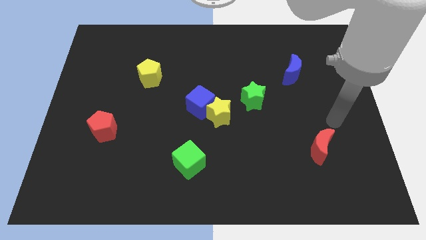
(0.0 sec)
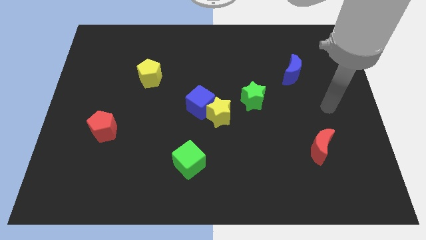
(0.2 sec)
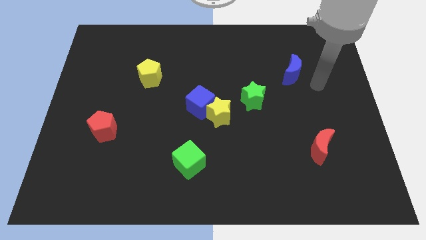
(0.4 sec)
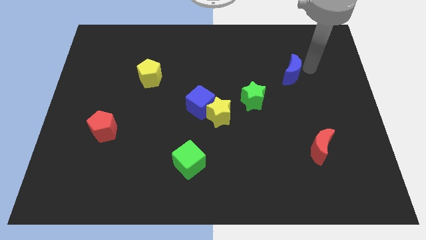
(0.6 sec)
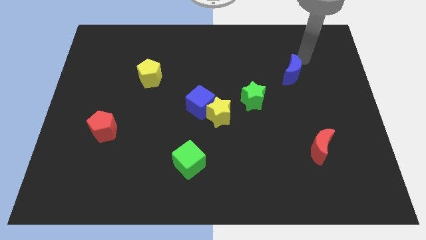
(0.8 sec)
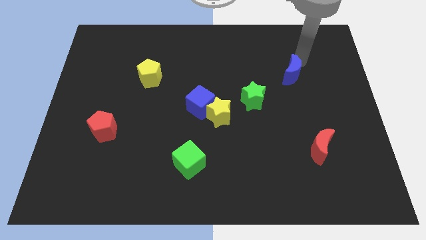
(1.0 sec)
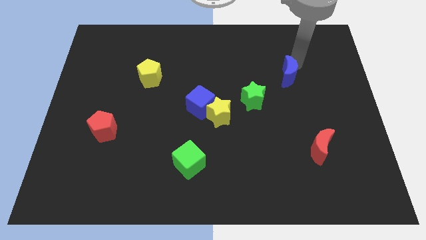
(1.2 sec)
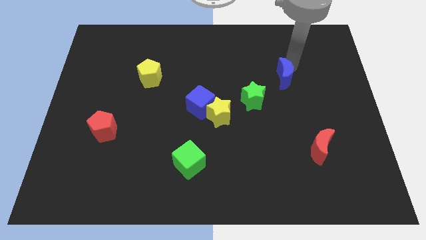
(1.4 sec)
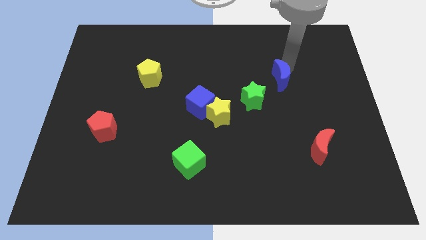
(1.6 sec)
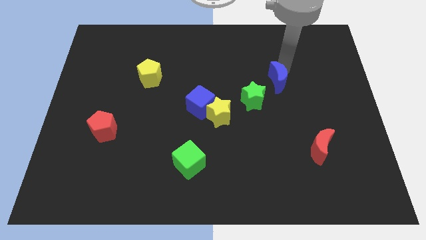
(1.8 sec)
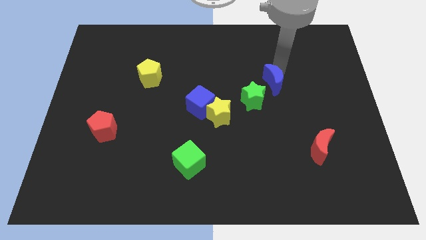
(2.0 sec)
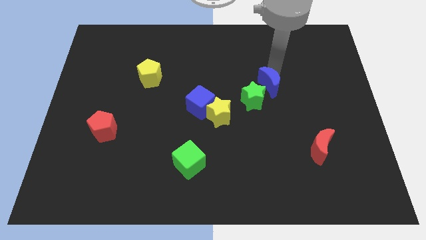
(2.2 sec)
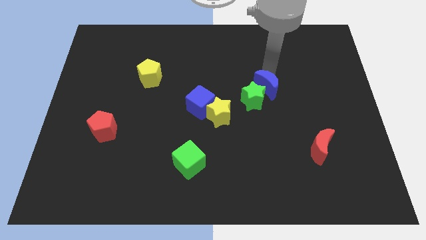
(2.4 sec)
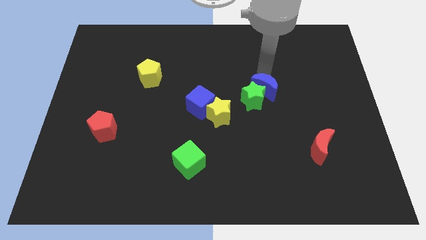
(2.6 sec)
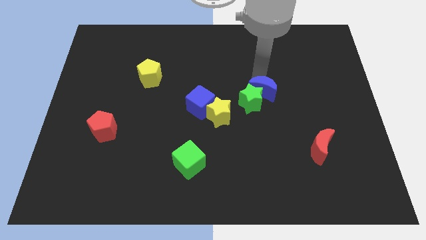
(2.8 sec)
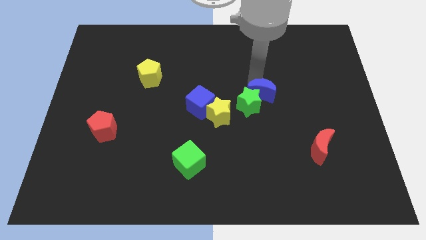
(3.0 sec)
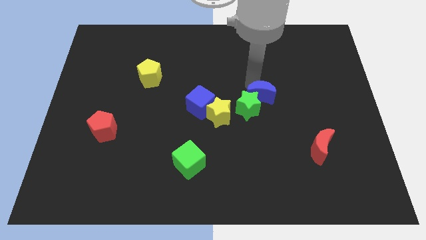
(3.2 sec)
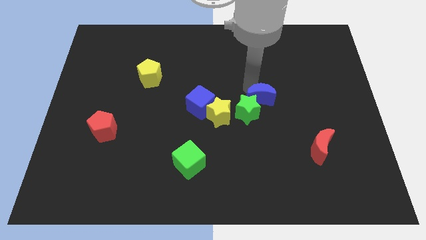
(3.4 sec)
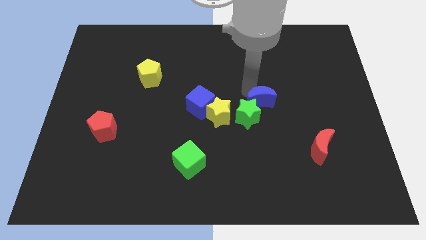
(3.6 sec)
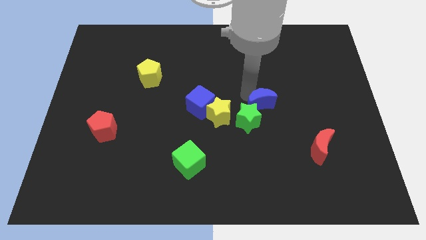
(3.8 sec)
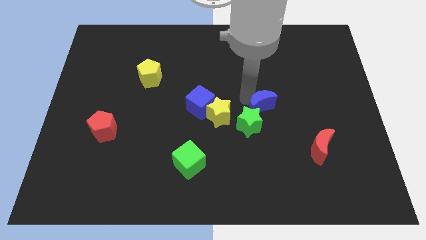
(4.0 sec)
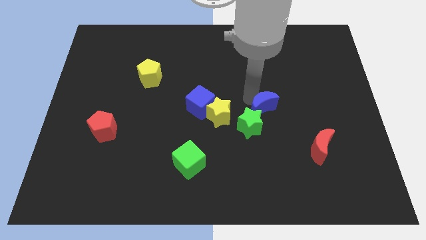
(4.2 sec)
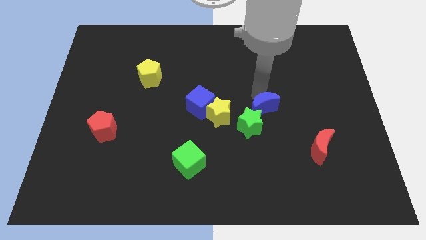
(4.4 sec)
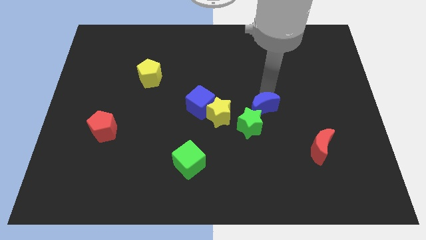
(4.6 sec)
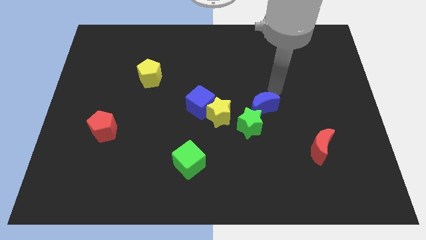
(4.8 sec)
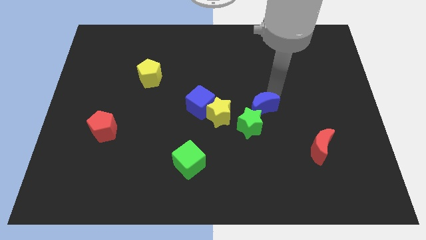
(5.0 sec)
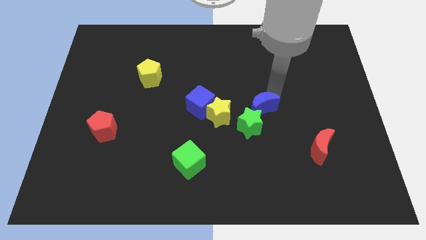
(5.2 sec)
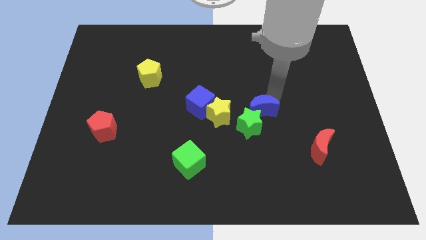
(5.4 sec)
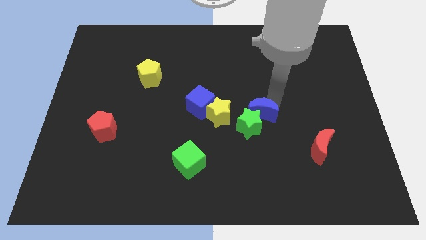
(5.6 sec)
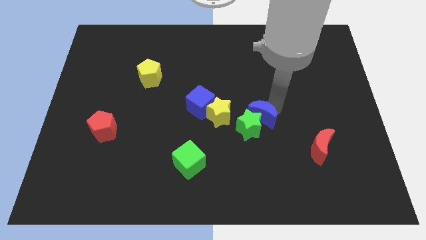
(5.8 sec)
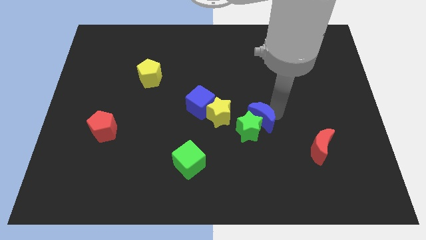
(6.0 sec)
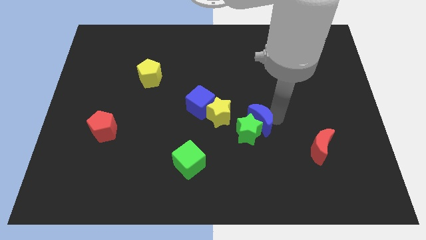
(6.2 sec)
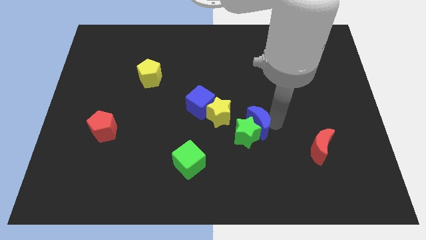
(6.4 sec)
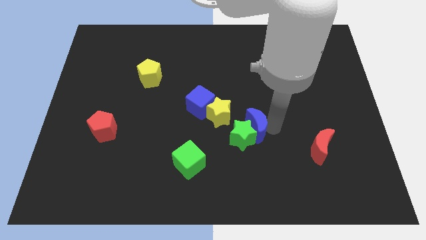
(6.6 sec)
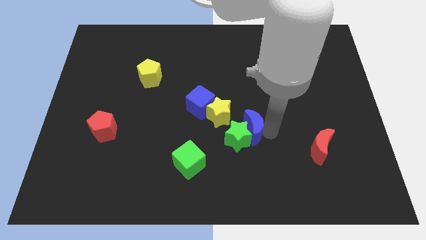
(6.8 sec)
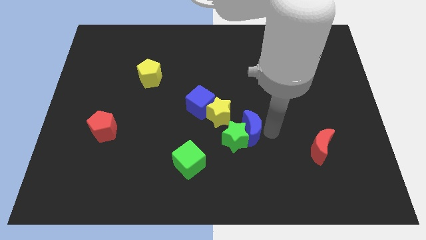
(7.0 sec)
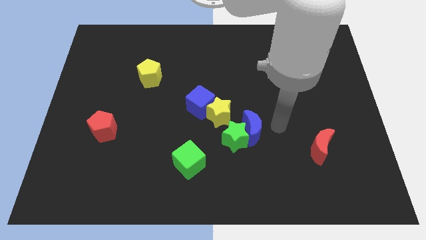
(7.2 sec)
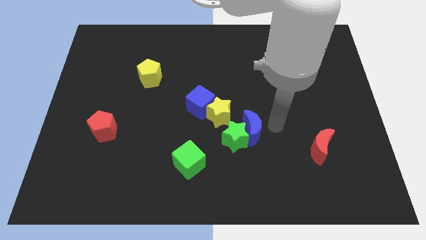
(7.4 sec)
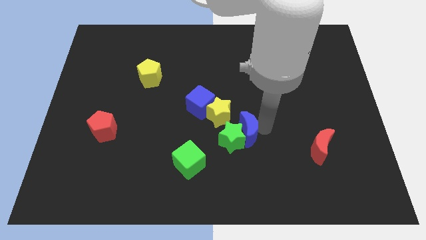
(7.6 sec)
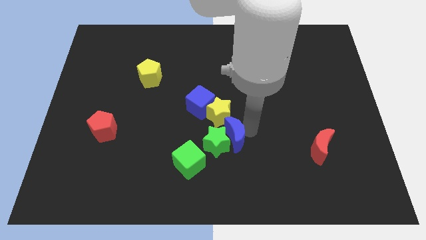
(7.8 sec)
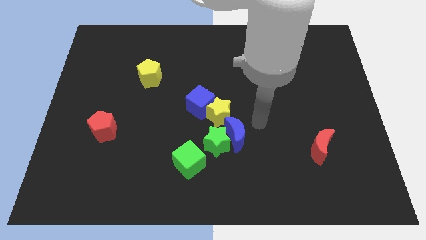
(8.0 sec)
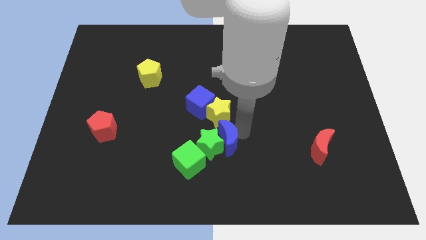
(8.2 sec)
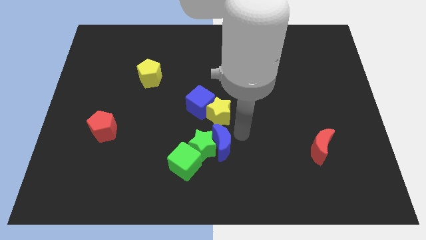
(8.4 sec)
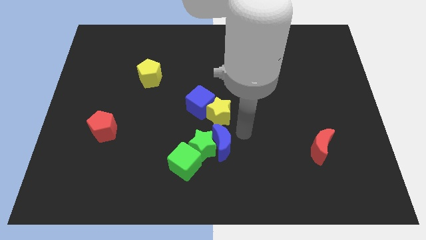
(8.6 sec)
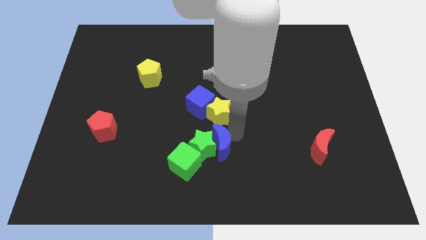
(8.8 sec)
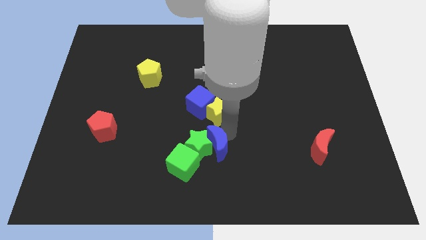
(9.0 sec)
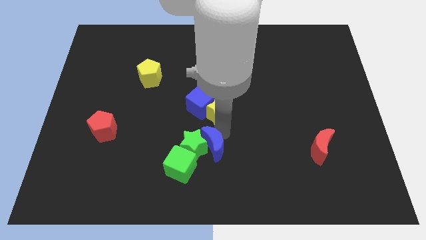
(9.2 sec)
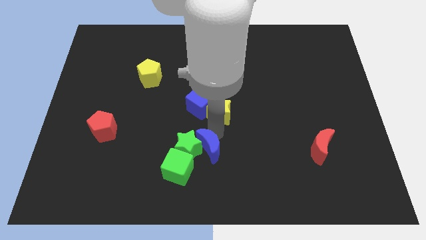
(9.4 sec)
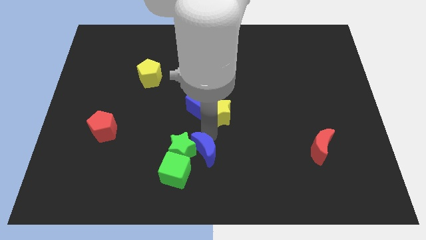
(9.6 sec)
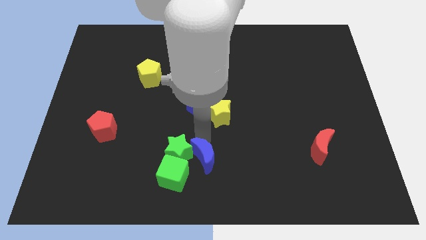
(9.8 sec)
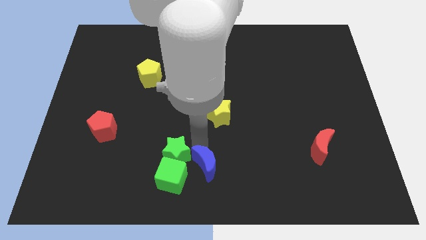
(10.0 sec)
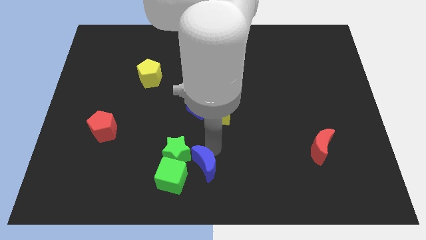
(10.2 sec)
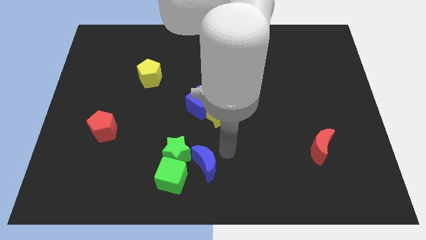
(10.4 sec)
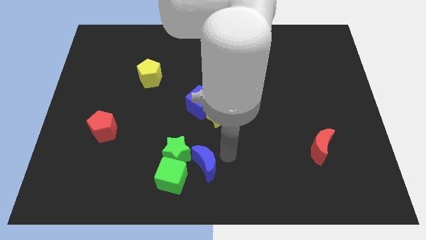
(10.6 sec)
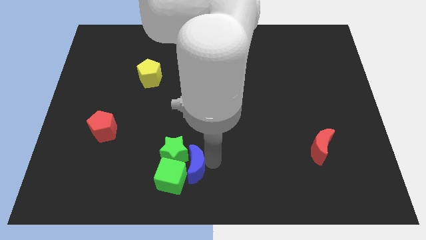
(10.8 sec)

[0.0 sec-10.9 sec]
move the blue moon close to the green cube

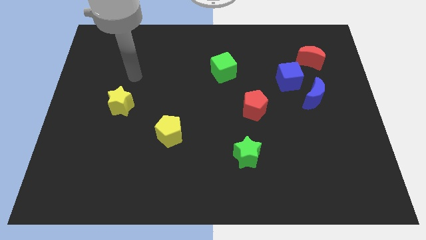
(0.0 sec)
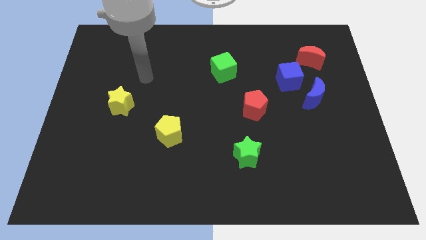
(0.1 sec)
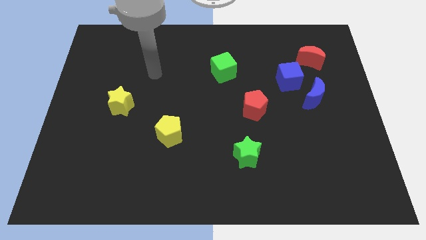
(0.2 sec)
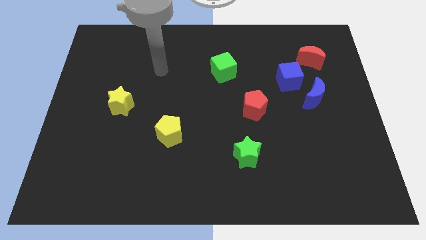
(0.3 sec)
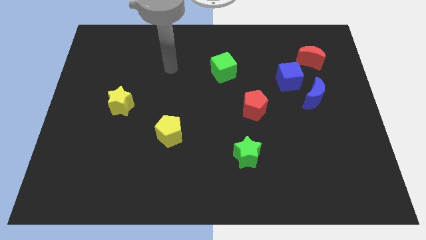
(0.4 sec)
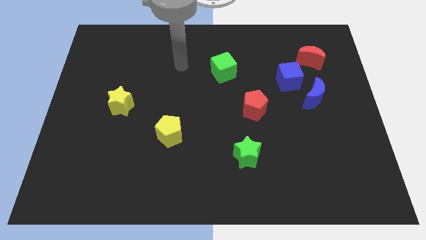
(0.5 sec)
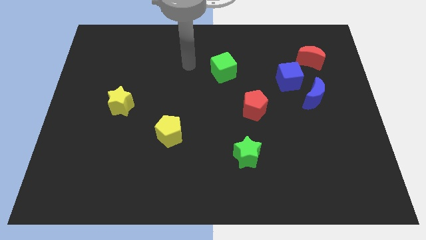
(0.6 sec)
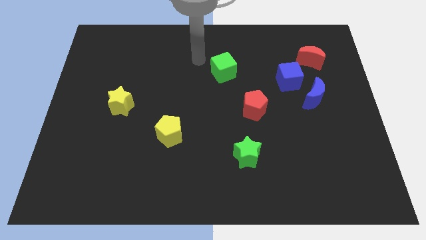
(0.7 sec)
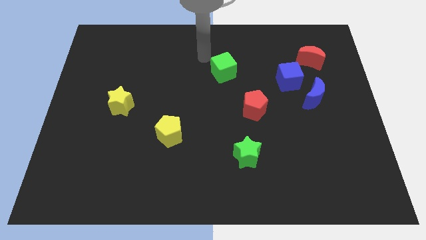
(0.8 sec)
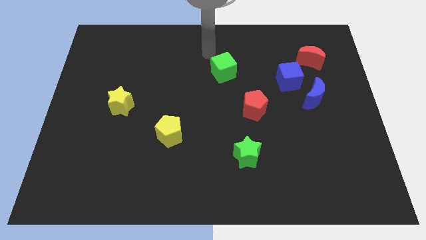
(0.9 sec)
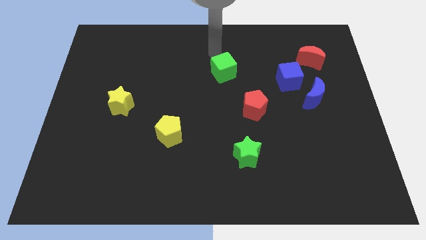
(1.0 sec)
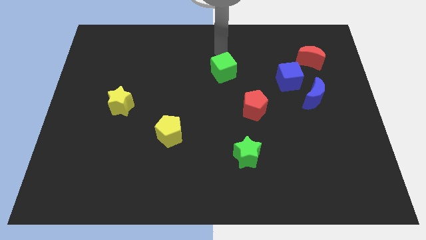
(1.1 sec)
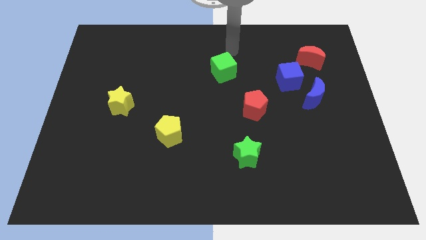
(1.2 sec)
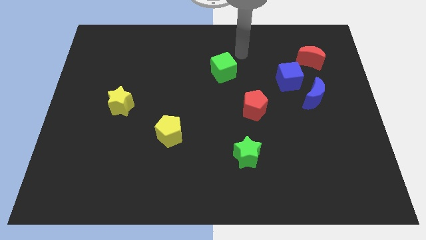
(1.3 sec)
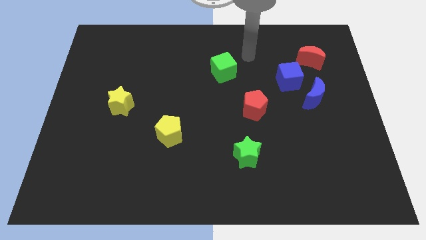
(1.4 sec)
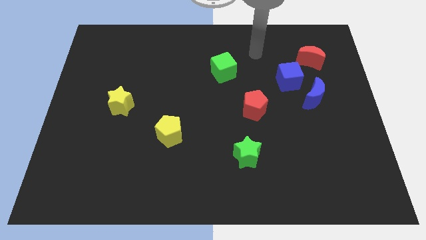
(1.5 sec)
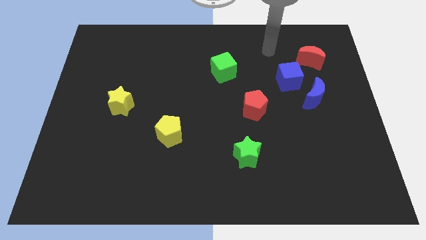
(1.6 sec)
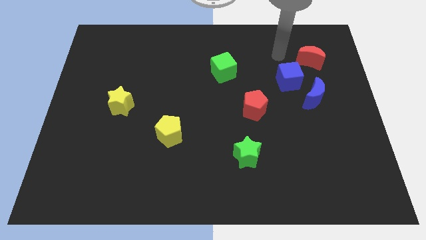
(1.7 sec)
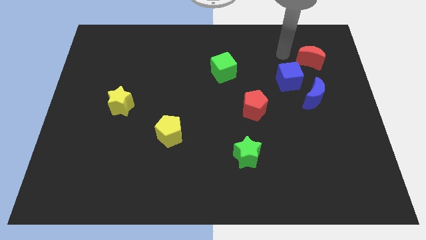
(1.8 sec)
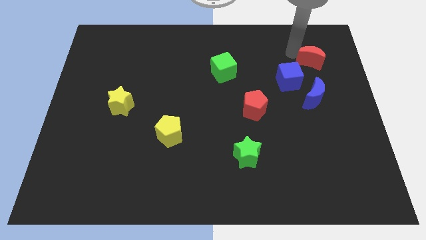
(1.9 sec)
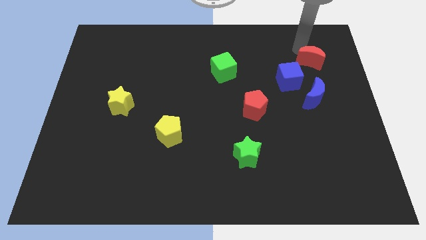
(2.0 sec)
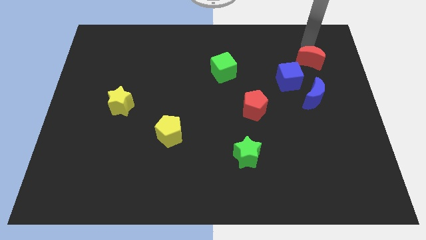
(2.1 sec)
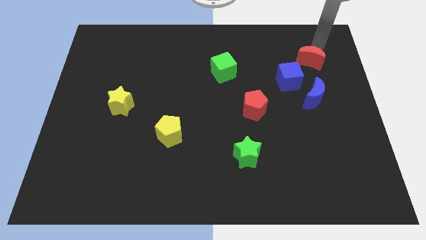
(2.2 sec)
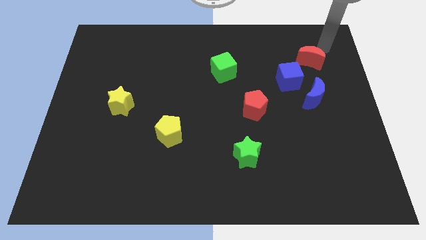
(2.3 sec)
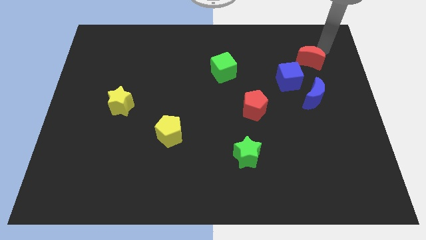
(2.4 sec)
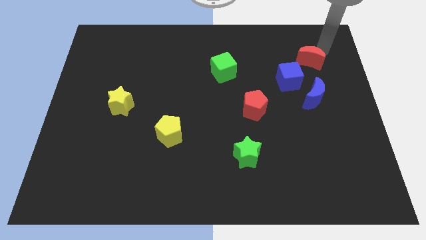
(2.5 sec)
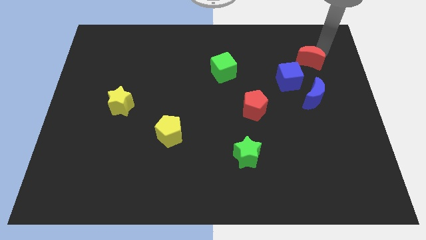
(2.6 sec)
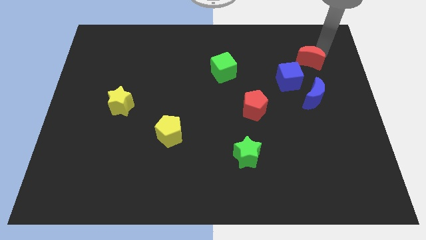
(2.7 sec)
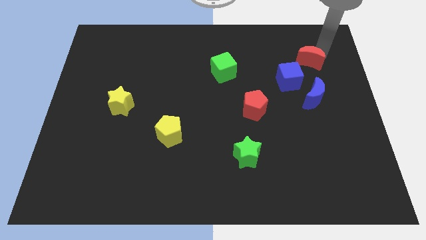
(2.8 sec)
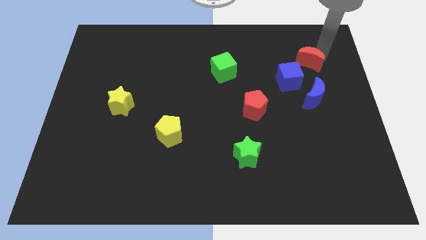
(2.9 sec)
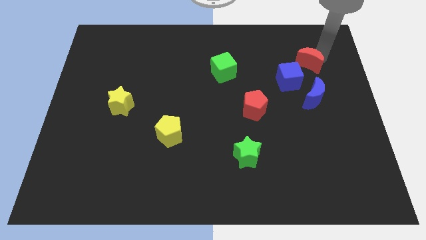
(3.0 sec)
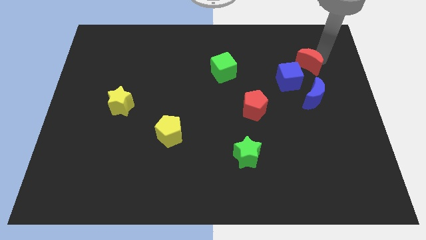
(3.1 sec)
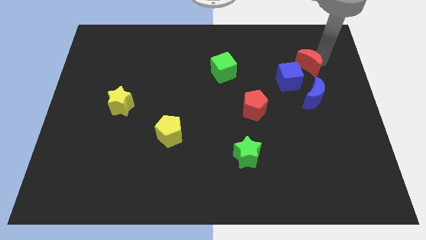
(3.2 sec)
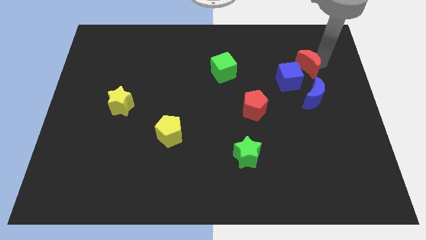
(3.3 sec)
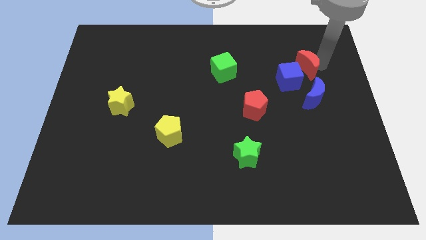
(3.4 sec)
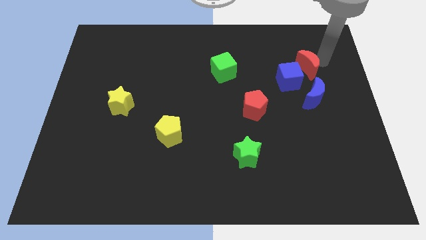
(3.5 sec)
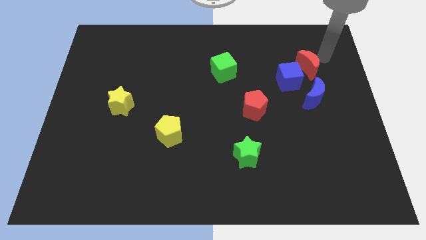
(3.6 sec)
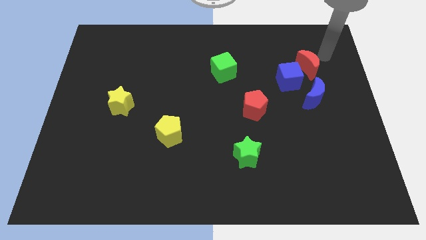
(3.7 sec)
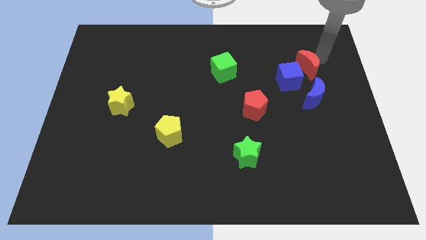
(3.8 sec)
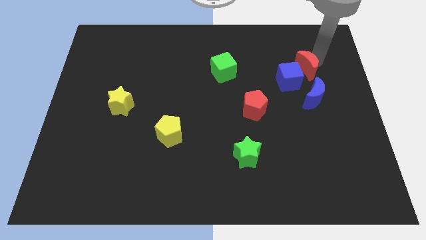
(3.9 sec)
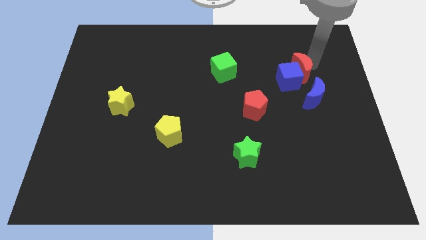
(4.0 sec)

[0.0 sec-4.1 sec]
slide the red moon close to the blue cube
